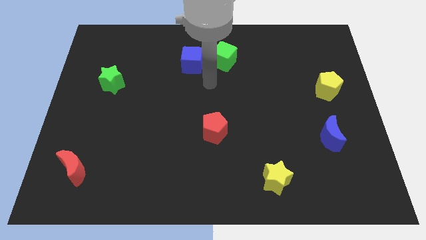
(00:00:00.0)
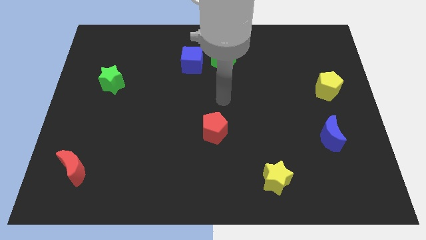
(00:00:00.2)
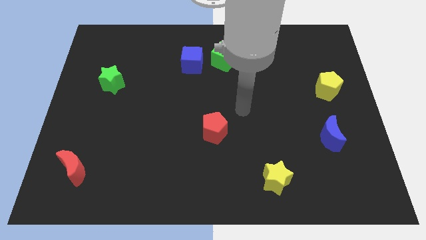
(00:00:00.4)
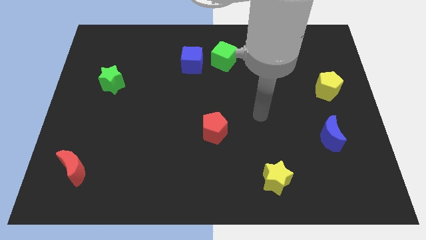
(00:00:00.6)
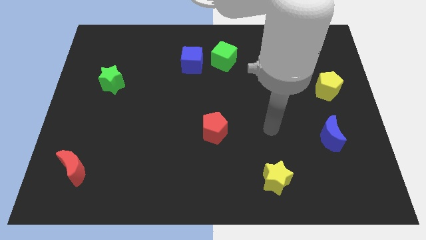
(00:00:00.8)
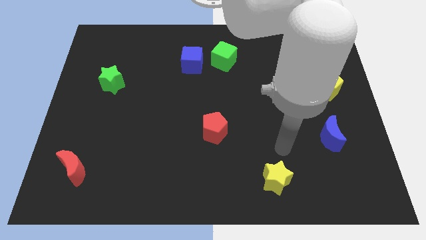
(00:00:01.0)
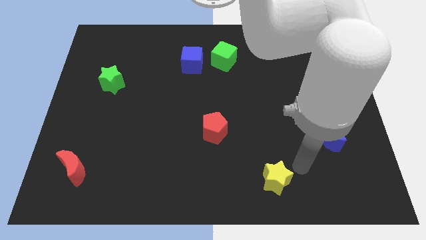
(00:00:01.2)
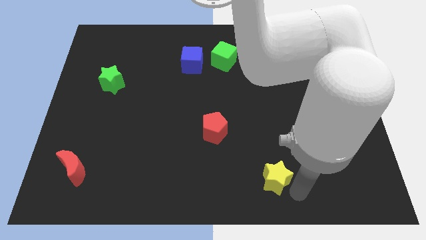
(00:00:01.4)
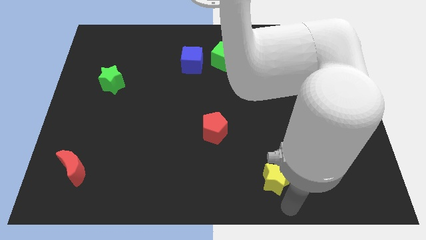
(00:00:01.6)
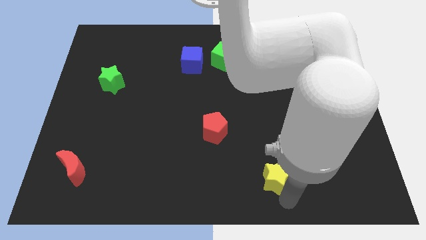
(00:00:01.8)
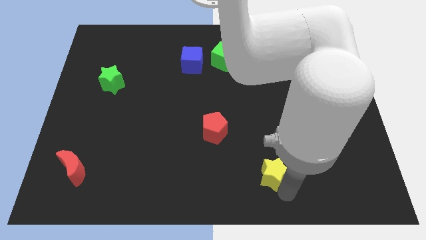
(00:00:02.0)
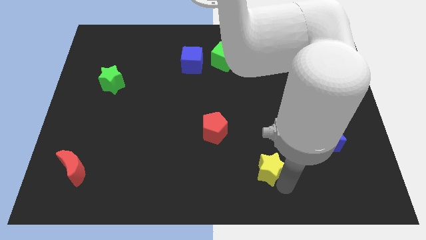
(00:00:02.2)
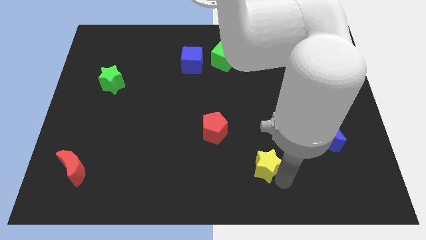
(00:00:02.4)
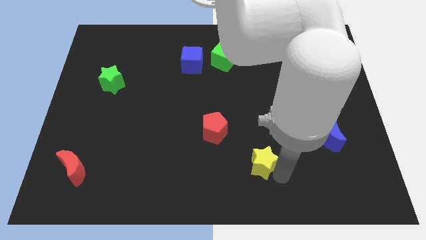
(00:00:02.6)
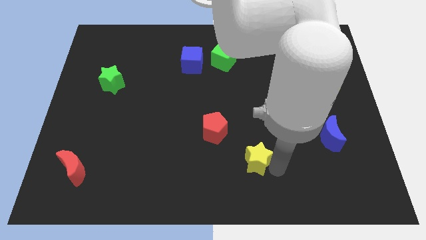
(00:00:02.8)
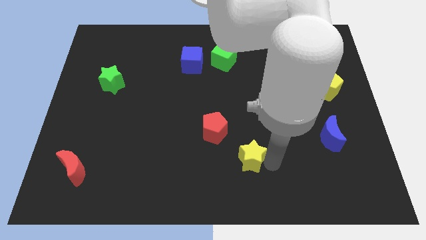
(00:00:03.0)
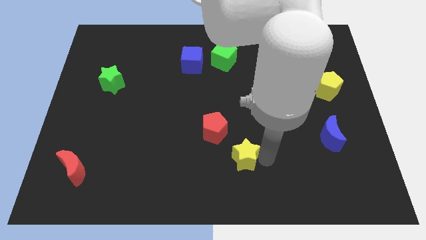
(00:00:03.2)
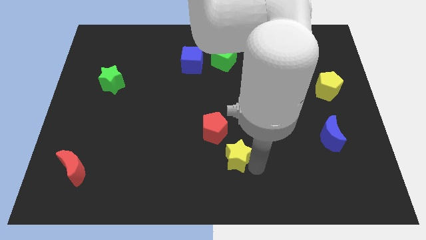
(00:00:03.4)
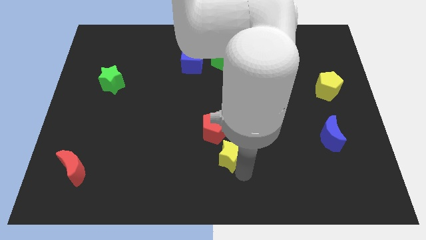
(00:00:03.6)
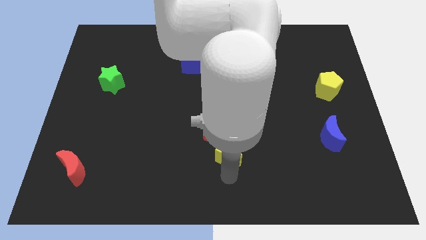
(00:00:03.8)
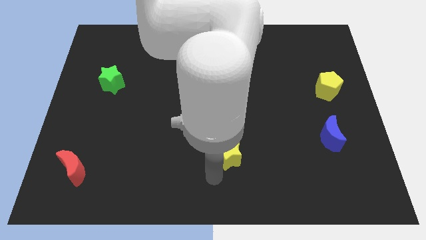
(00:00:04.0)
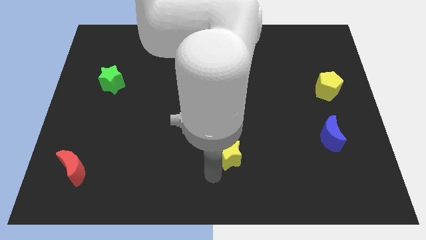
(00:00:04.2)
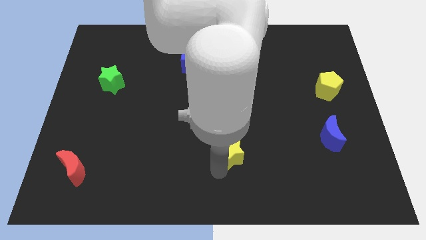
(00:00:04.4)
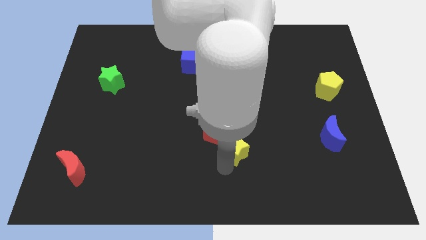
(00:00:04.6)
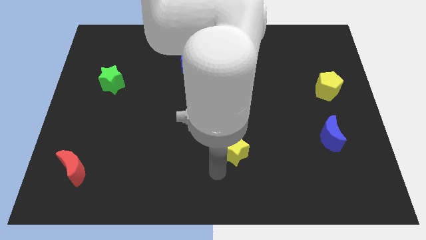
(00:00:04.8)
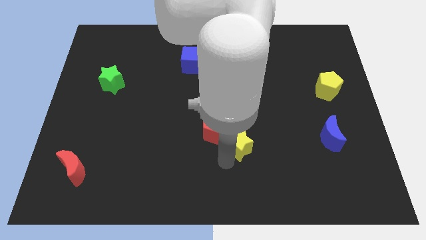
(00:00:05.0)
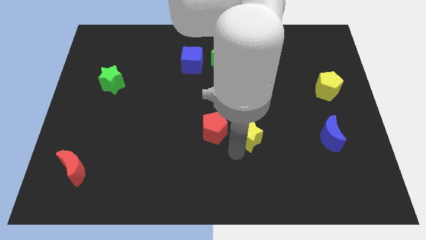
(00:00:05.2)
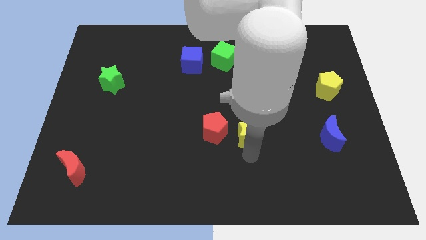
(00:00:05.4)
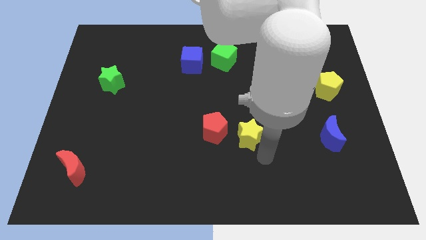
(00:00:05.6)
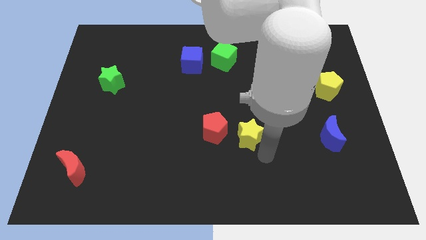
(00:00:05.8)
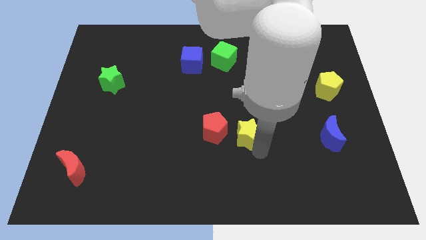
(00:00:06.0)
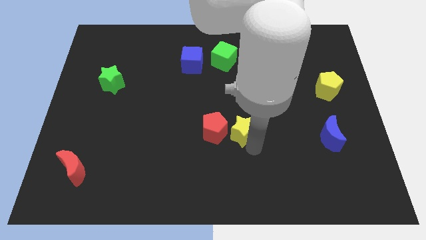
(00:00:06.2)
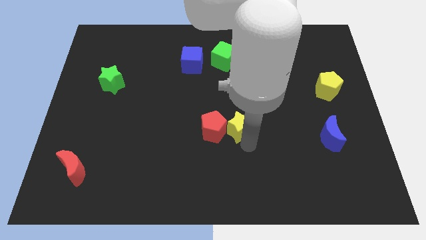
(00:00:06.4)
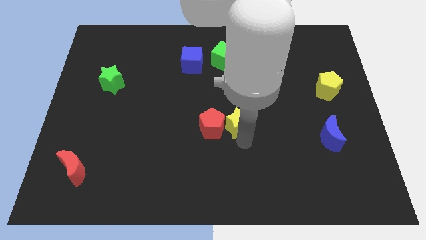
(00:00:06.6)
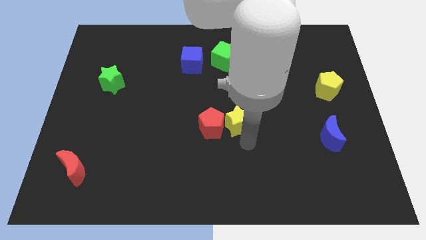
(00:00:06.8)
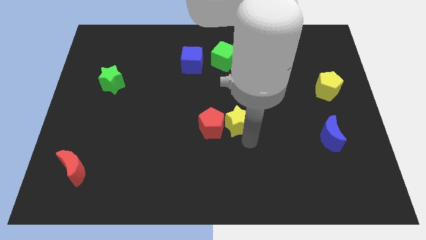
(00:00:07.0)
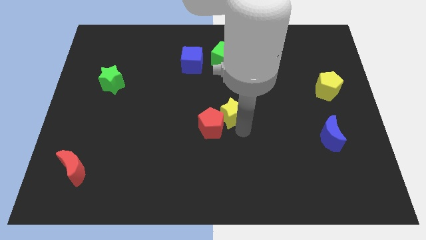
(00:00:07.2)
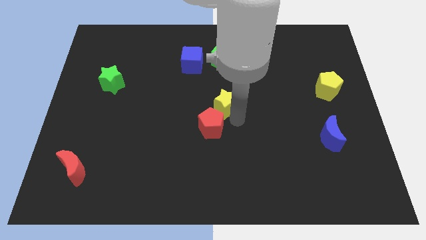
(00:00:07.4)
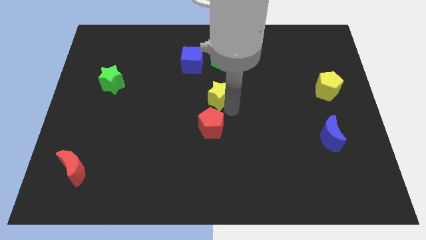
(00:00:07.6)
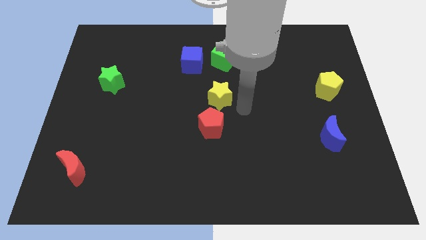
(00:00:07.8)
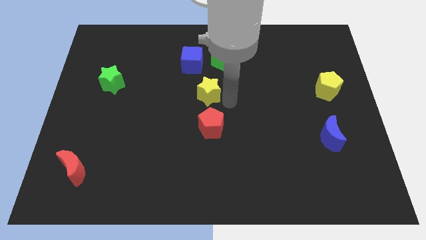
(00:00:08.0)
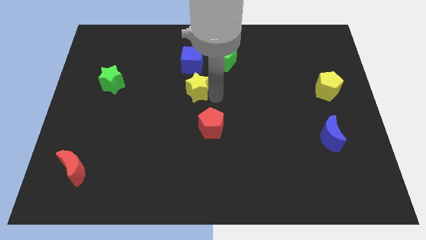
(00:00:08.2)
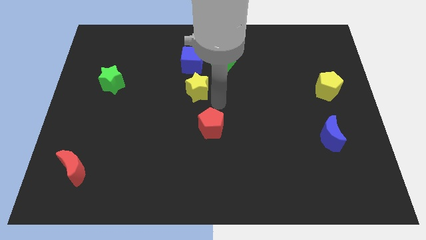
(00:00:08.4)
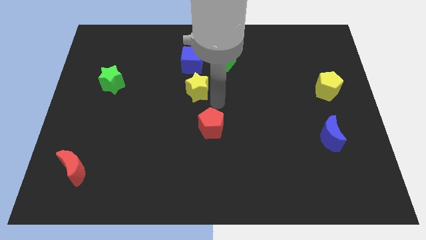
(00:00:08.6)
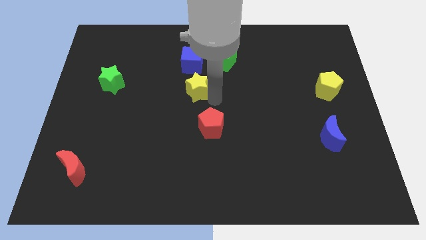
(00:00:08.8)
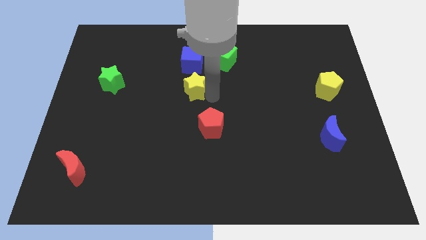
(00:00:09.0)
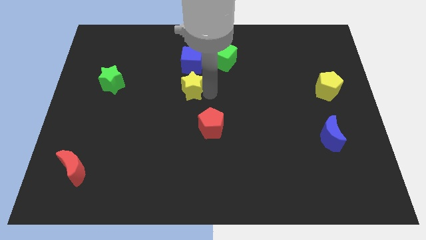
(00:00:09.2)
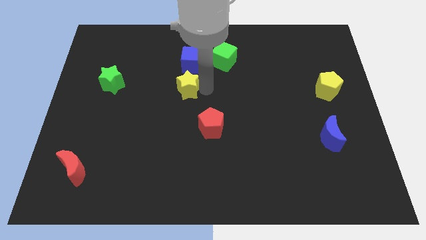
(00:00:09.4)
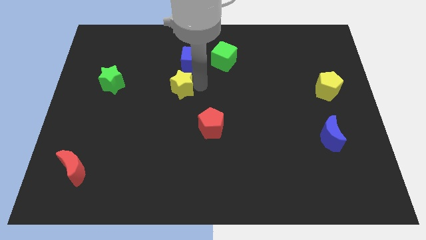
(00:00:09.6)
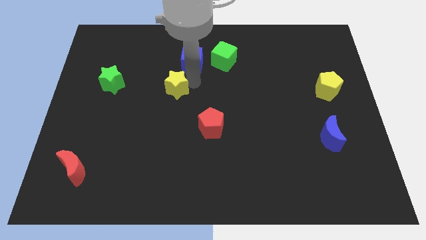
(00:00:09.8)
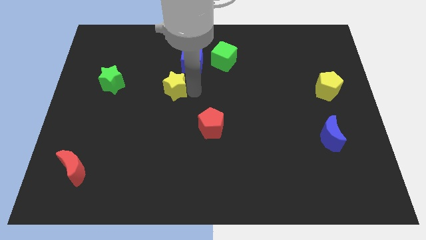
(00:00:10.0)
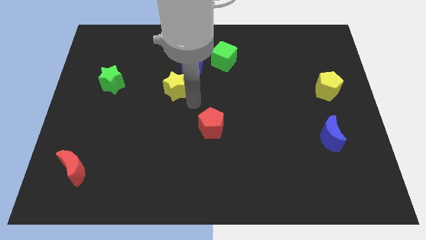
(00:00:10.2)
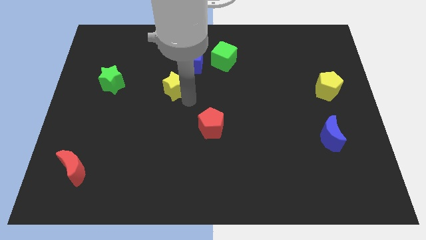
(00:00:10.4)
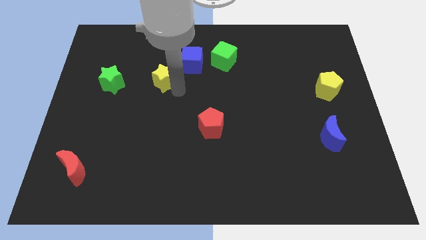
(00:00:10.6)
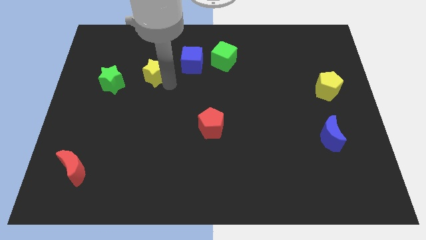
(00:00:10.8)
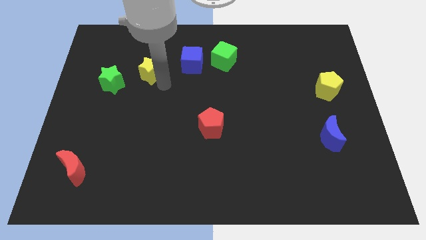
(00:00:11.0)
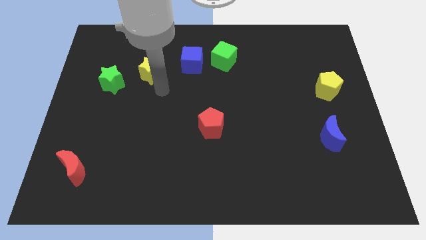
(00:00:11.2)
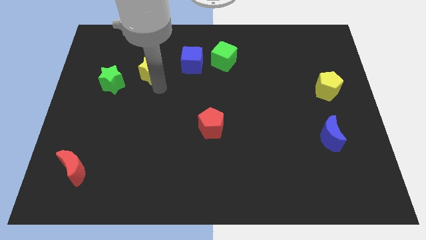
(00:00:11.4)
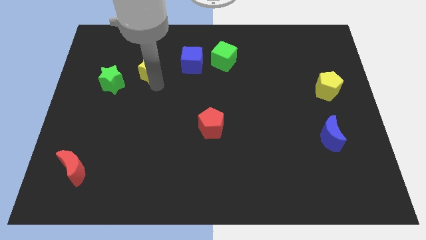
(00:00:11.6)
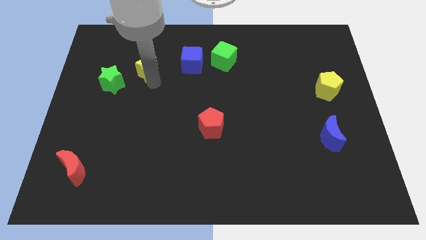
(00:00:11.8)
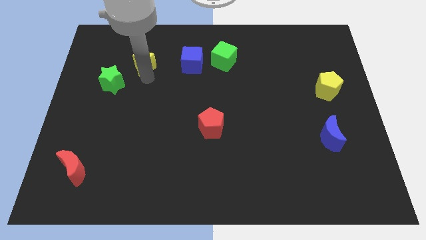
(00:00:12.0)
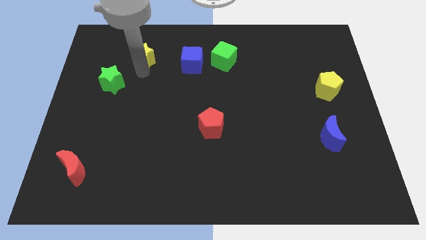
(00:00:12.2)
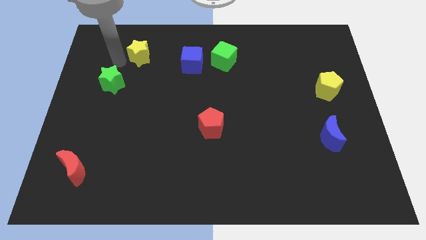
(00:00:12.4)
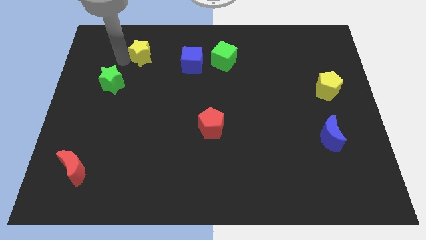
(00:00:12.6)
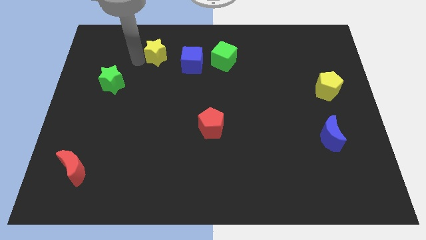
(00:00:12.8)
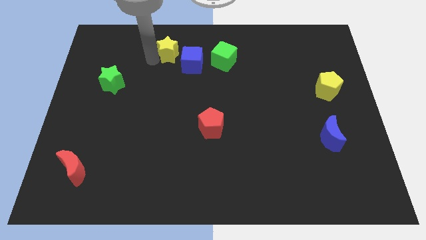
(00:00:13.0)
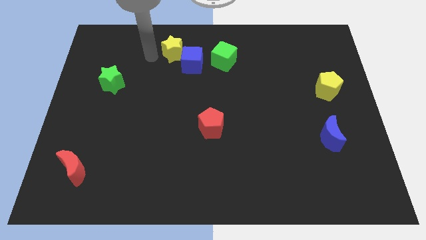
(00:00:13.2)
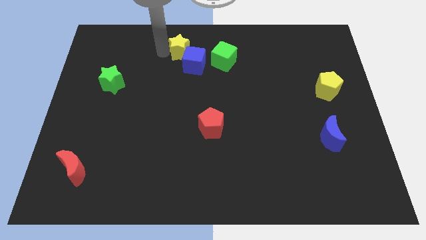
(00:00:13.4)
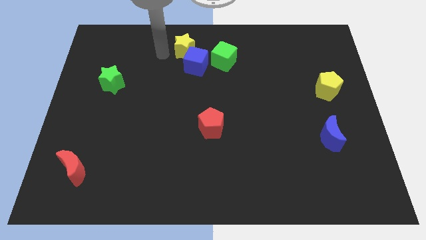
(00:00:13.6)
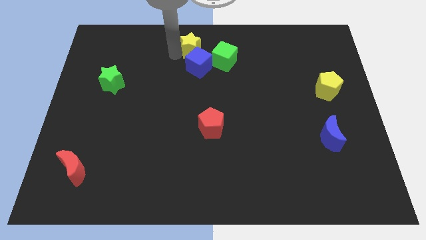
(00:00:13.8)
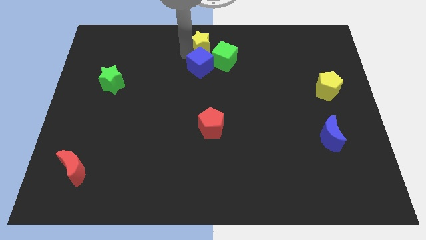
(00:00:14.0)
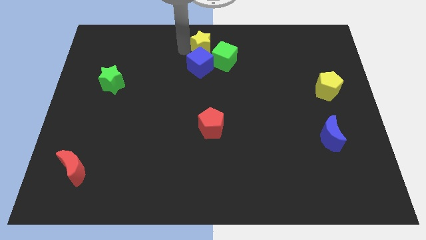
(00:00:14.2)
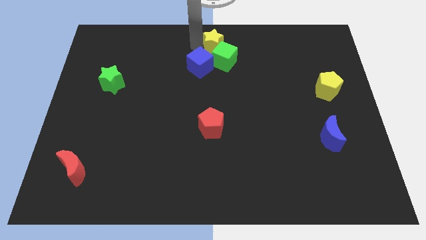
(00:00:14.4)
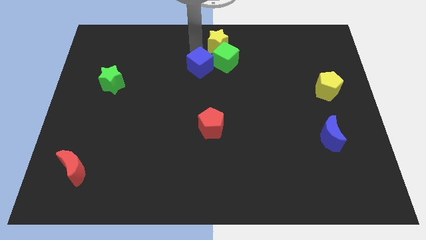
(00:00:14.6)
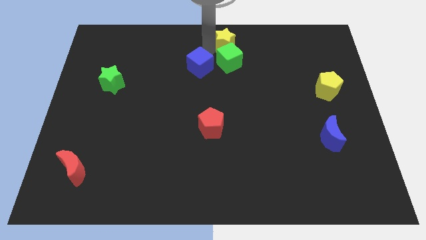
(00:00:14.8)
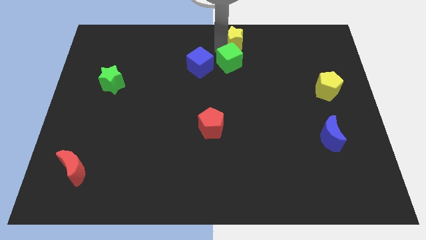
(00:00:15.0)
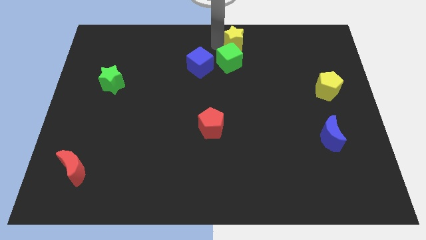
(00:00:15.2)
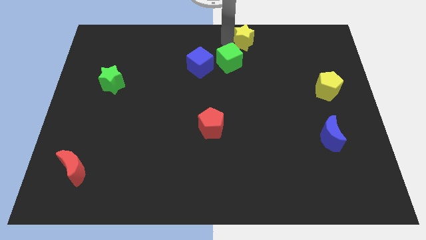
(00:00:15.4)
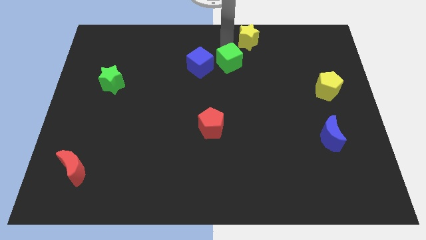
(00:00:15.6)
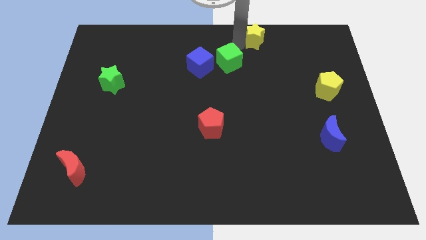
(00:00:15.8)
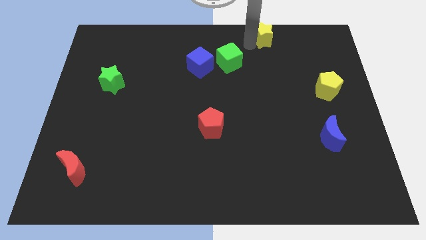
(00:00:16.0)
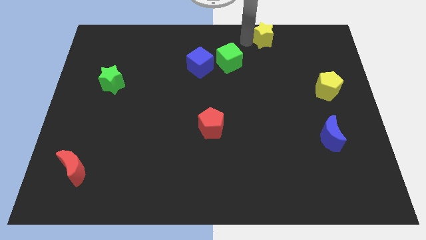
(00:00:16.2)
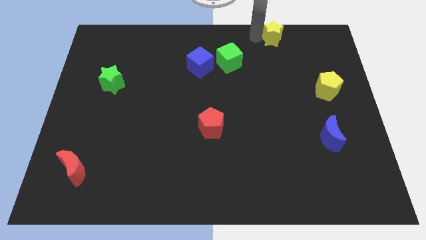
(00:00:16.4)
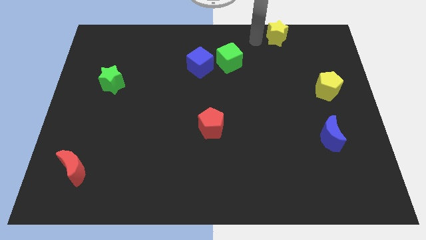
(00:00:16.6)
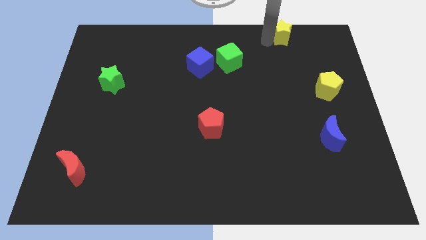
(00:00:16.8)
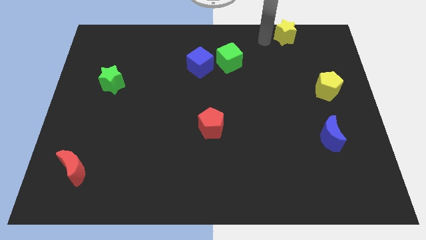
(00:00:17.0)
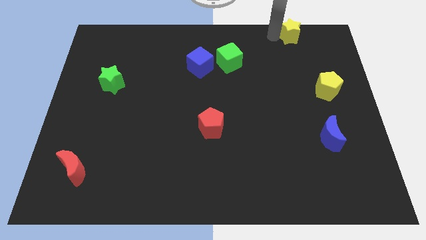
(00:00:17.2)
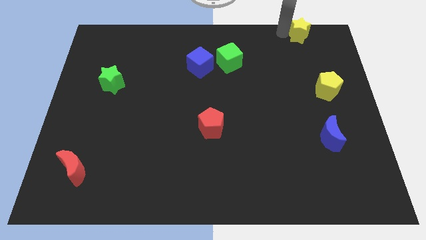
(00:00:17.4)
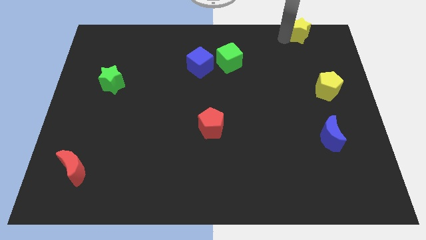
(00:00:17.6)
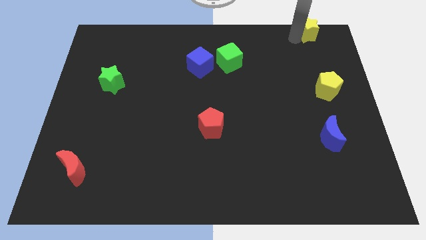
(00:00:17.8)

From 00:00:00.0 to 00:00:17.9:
push the yellow star to the top right of the board
